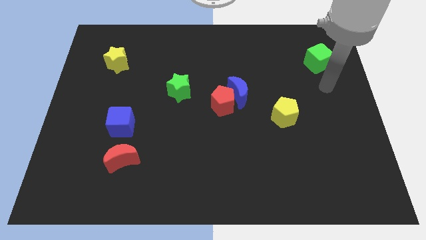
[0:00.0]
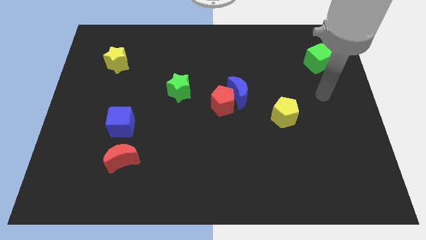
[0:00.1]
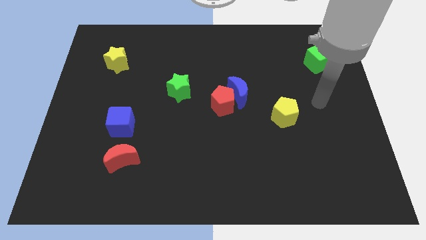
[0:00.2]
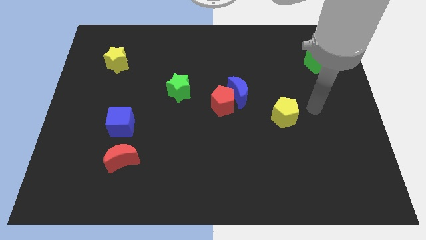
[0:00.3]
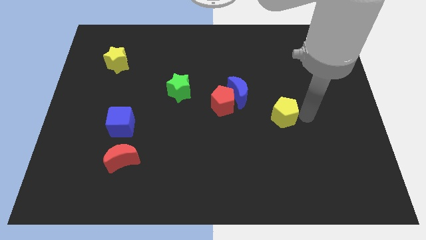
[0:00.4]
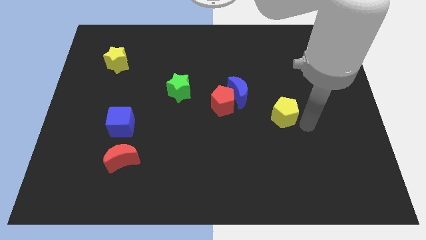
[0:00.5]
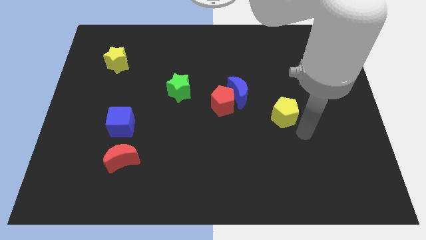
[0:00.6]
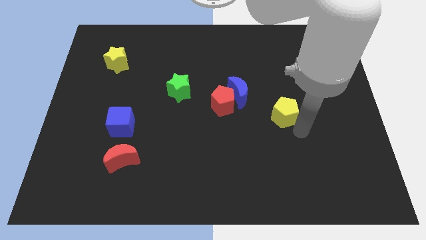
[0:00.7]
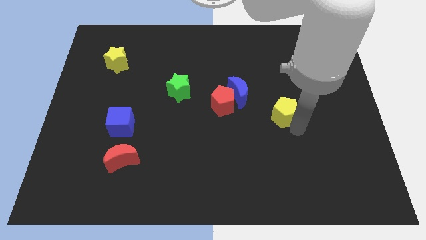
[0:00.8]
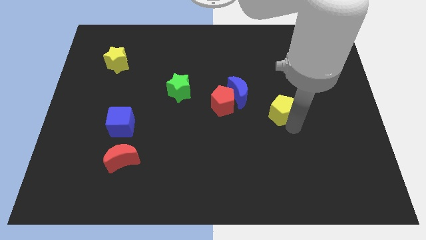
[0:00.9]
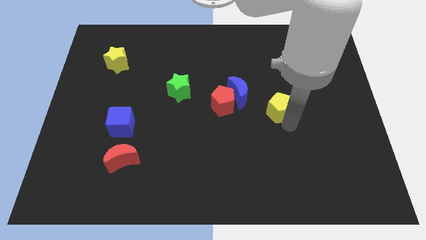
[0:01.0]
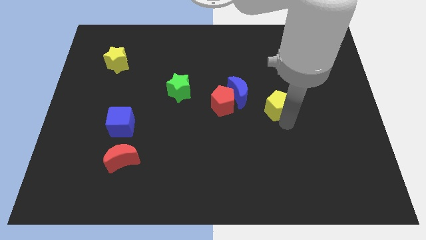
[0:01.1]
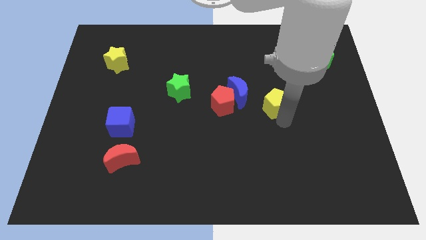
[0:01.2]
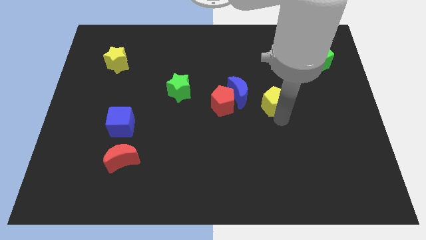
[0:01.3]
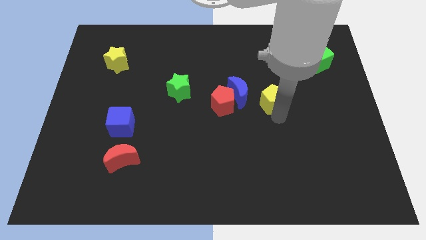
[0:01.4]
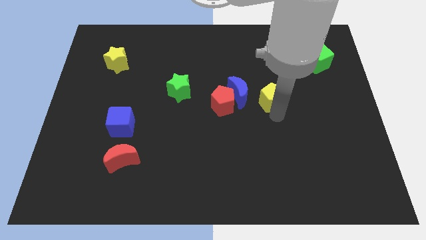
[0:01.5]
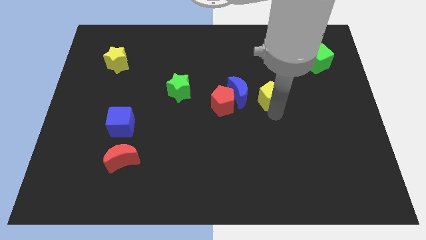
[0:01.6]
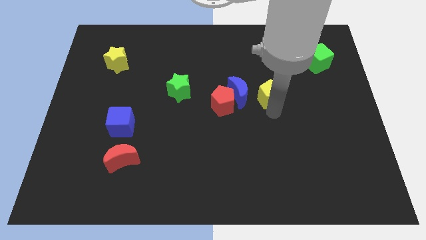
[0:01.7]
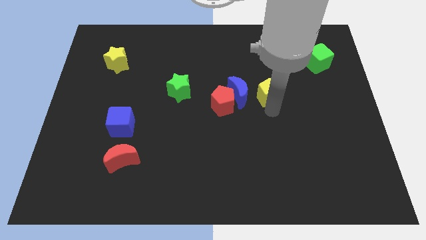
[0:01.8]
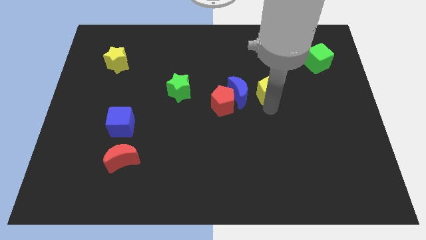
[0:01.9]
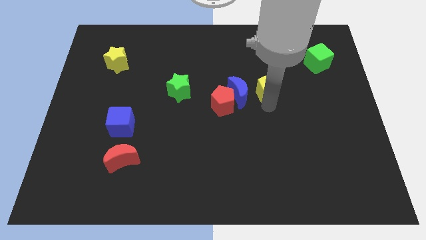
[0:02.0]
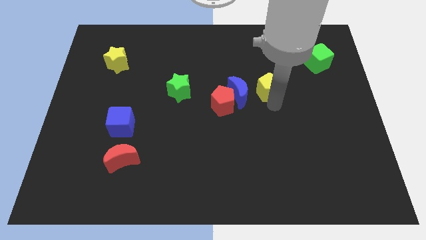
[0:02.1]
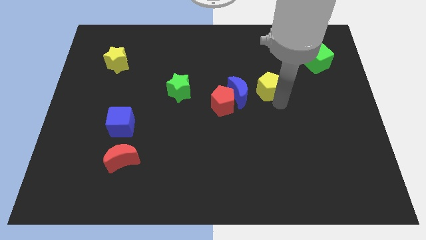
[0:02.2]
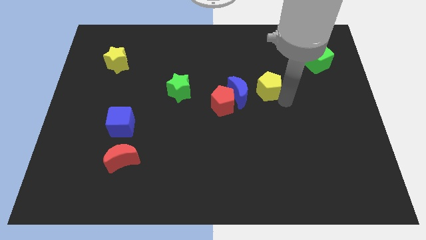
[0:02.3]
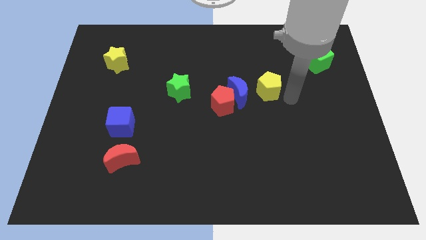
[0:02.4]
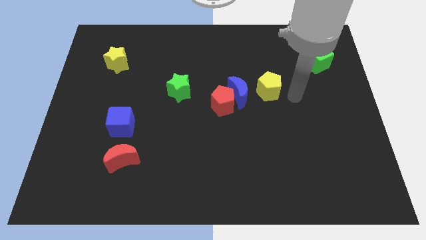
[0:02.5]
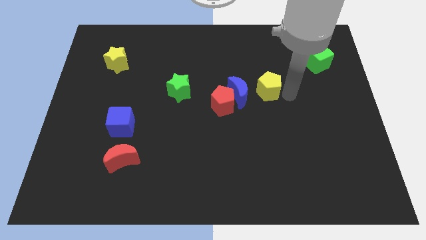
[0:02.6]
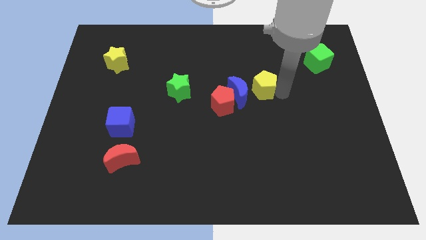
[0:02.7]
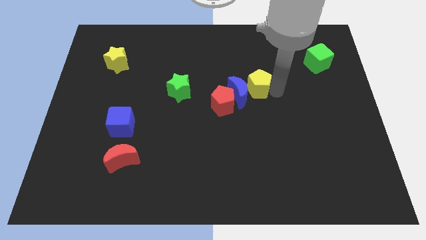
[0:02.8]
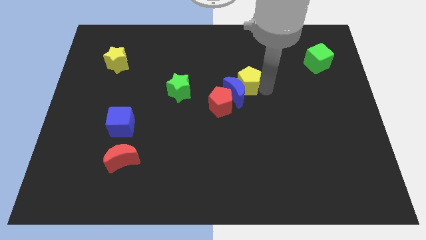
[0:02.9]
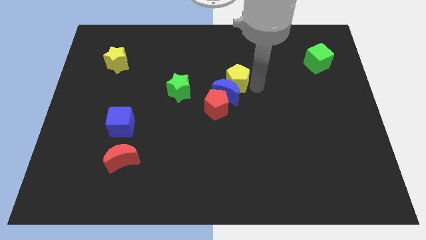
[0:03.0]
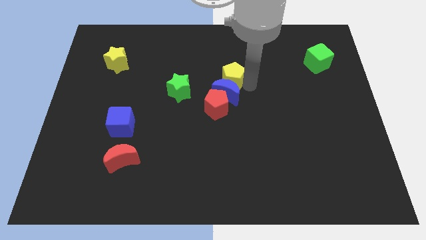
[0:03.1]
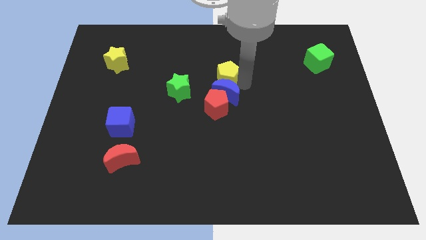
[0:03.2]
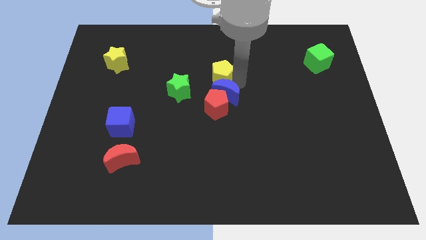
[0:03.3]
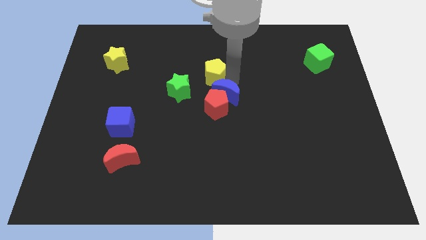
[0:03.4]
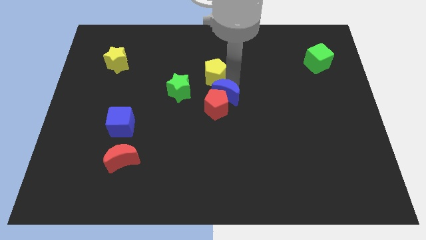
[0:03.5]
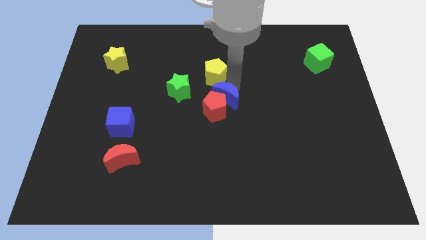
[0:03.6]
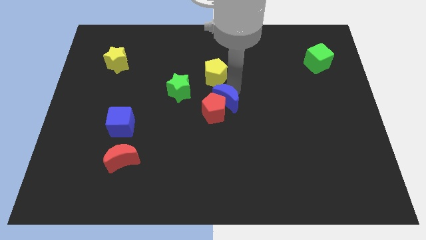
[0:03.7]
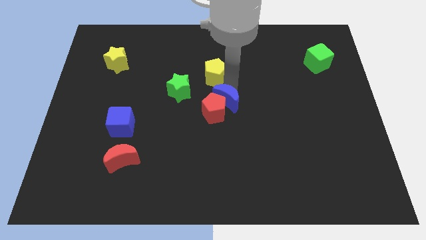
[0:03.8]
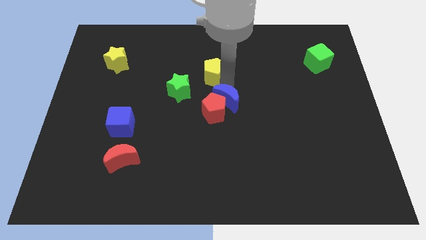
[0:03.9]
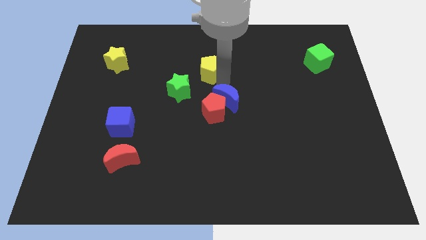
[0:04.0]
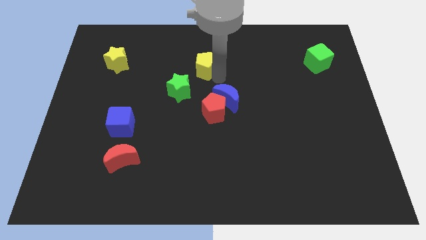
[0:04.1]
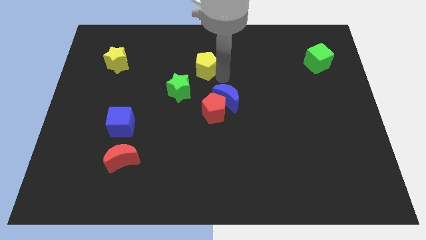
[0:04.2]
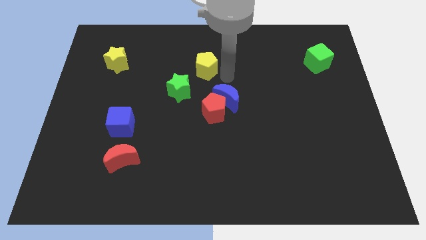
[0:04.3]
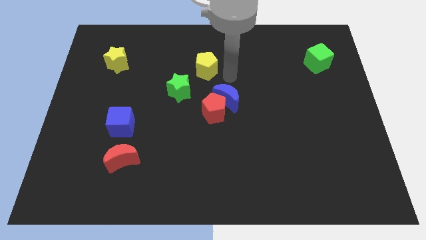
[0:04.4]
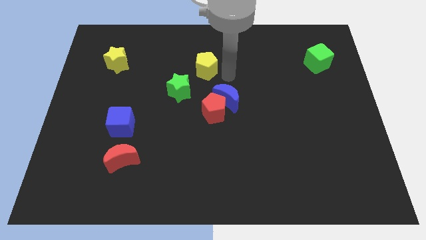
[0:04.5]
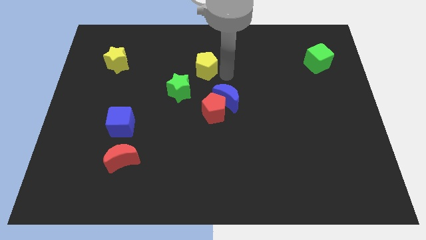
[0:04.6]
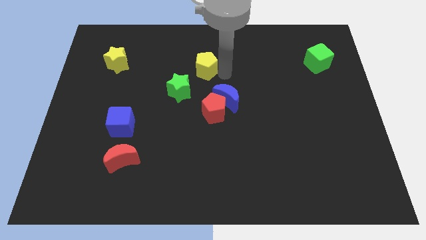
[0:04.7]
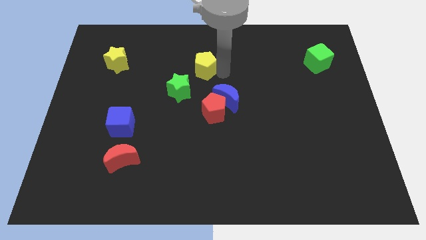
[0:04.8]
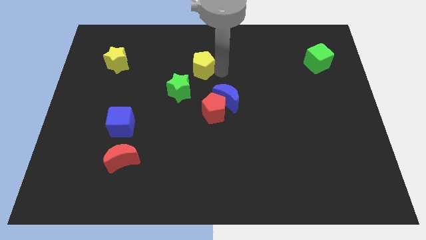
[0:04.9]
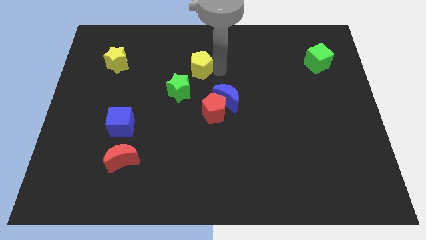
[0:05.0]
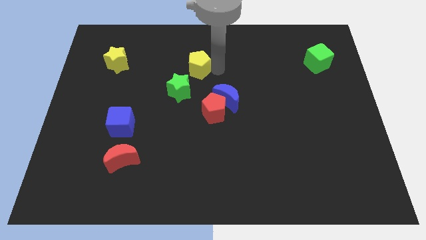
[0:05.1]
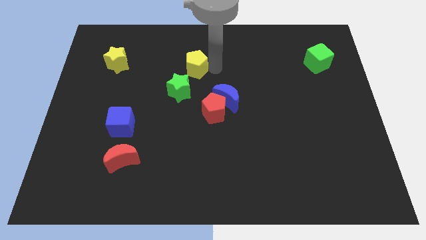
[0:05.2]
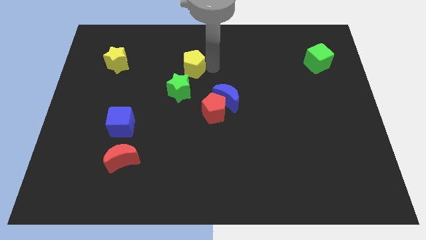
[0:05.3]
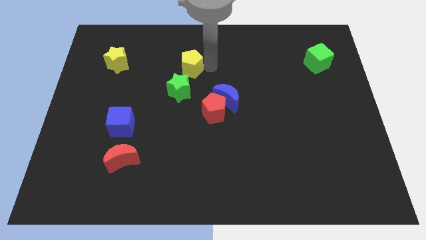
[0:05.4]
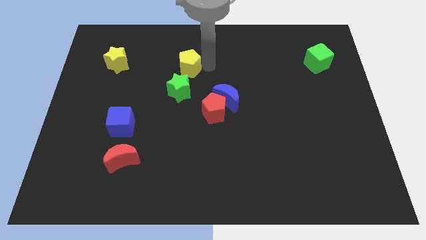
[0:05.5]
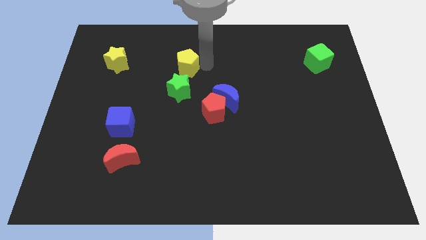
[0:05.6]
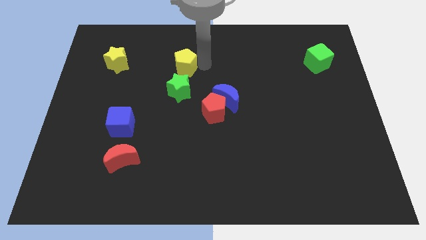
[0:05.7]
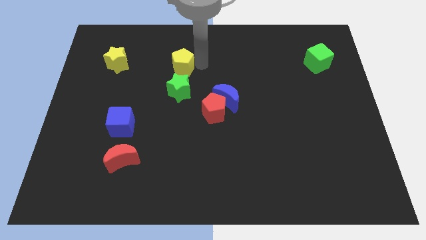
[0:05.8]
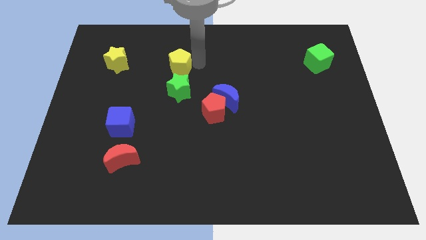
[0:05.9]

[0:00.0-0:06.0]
slide the yellow pentagon just right of the yellow star
